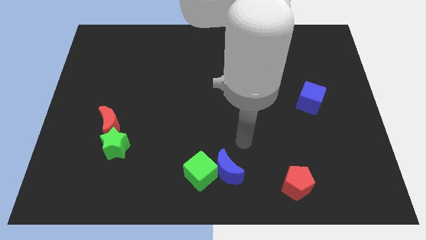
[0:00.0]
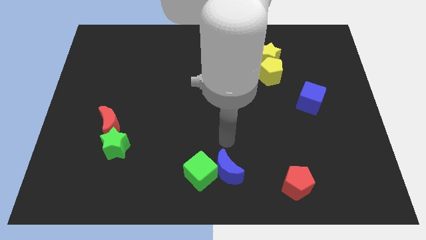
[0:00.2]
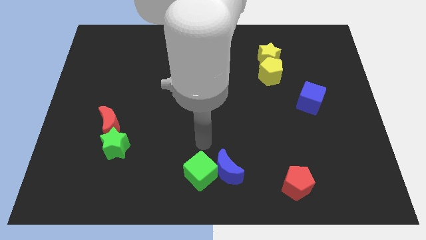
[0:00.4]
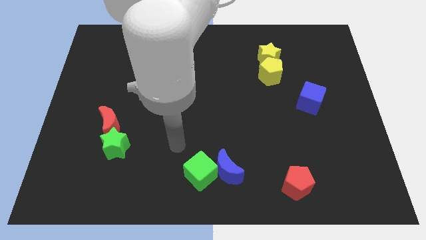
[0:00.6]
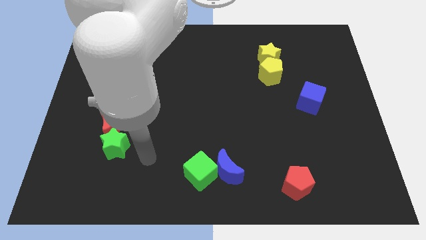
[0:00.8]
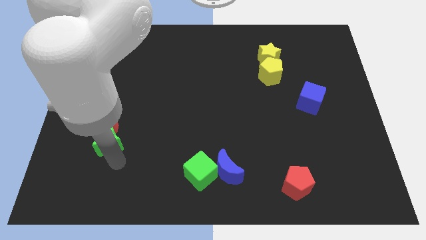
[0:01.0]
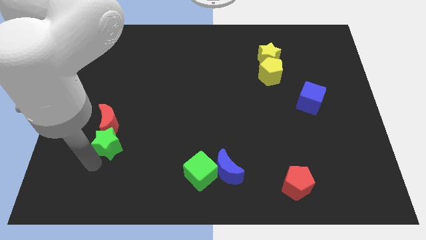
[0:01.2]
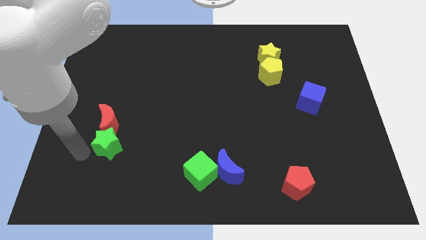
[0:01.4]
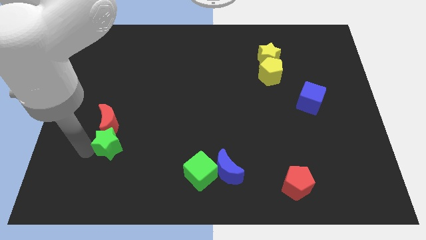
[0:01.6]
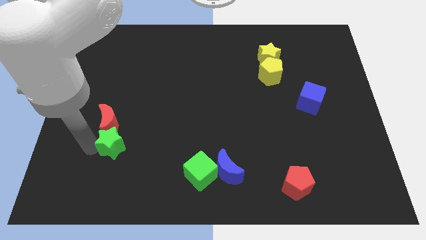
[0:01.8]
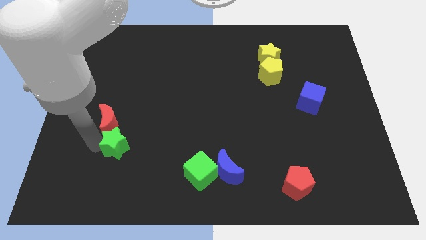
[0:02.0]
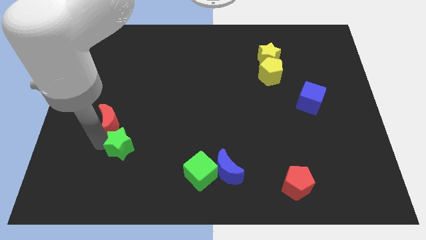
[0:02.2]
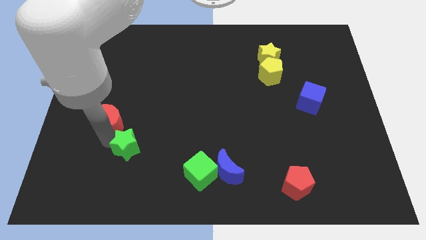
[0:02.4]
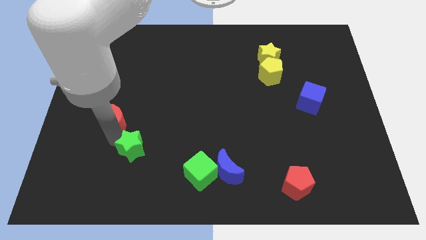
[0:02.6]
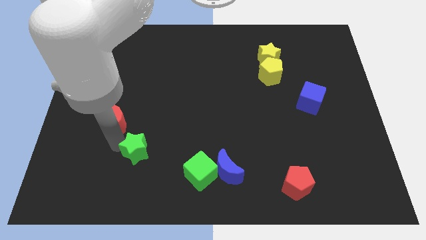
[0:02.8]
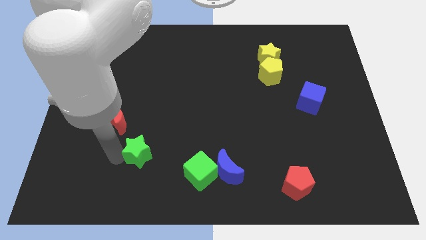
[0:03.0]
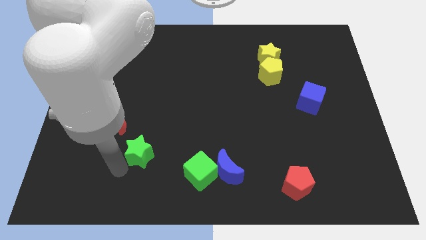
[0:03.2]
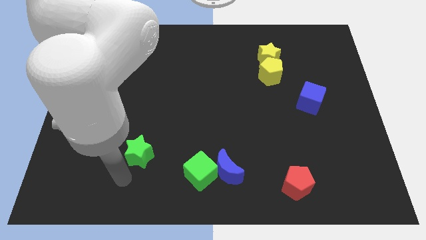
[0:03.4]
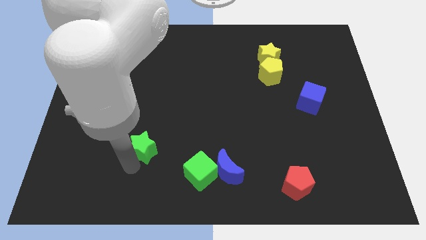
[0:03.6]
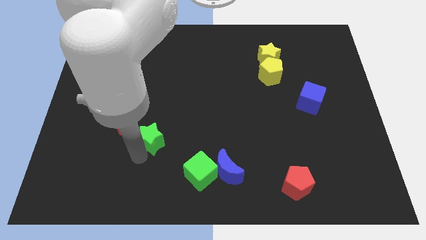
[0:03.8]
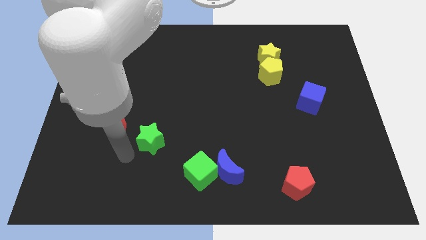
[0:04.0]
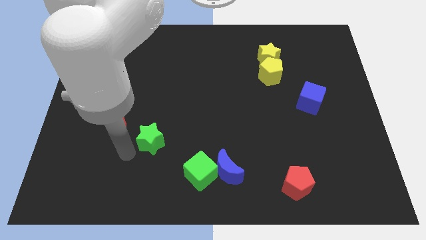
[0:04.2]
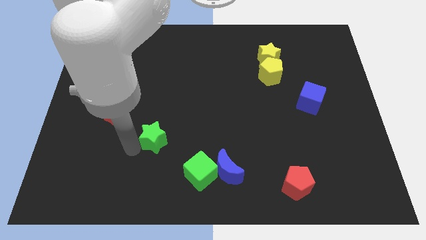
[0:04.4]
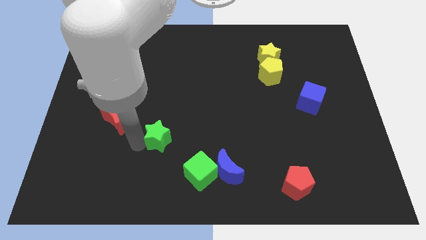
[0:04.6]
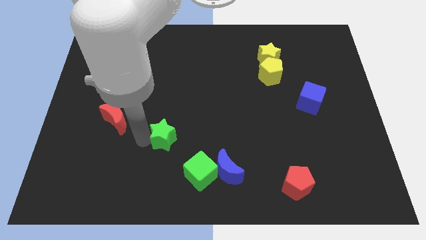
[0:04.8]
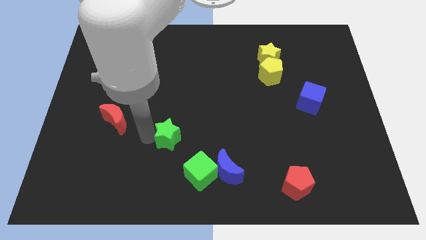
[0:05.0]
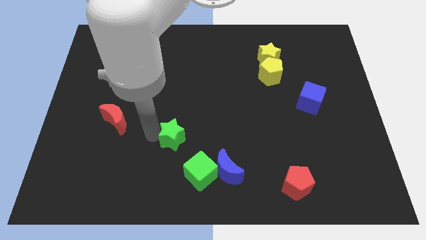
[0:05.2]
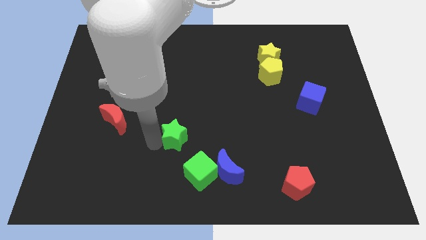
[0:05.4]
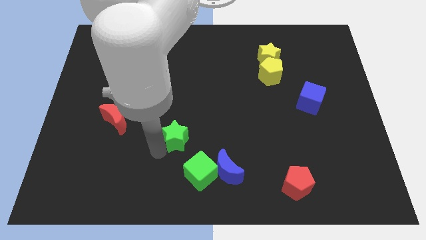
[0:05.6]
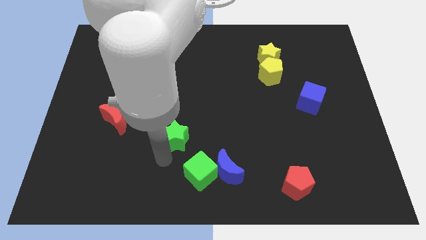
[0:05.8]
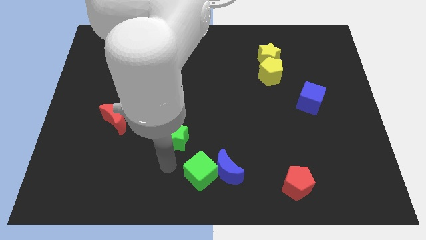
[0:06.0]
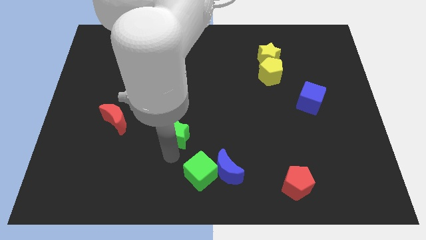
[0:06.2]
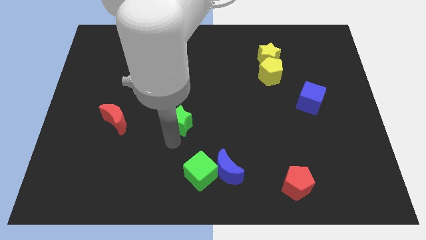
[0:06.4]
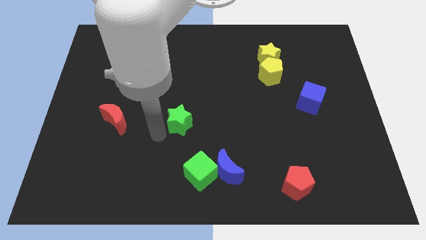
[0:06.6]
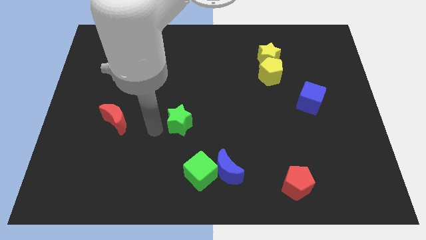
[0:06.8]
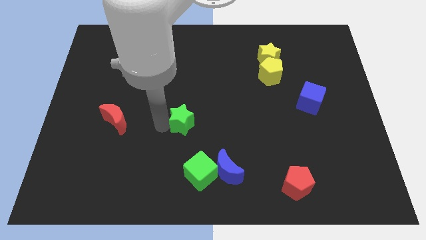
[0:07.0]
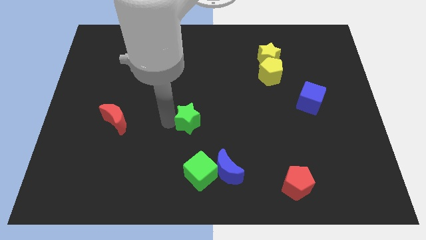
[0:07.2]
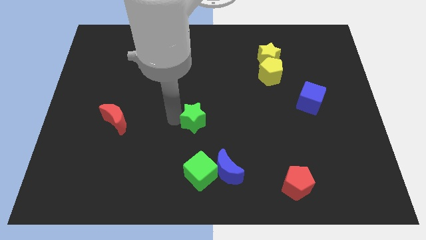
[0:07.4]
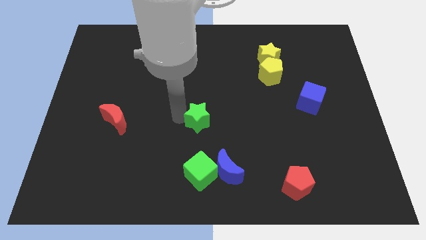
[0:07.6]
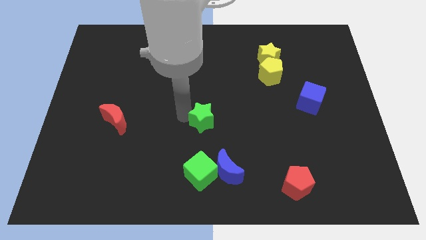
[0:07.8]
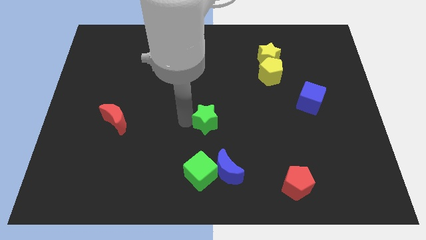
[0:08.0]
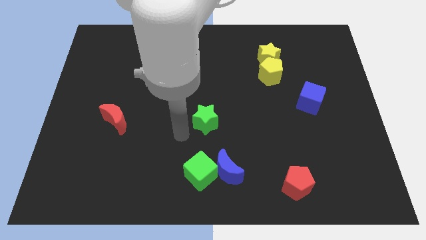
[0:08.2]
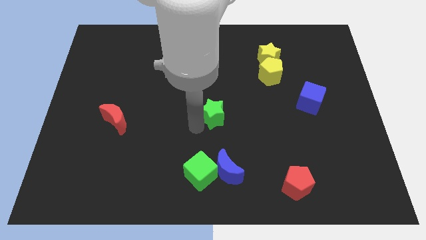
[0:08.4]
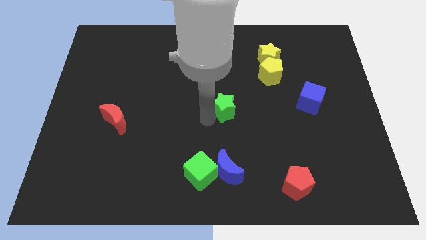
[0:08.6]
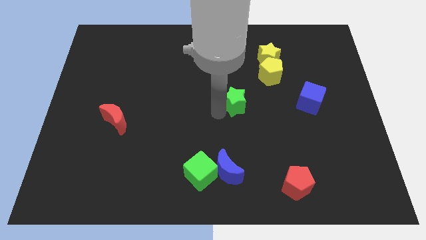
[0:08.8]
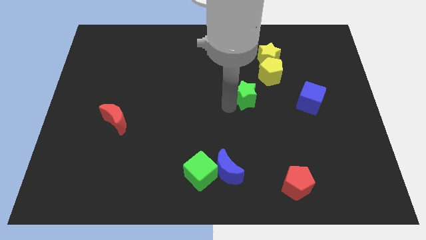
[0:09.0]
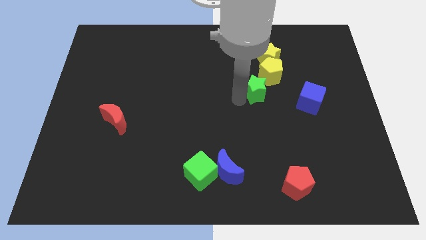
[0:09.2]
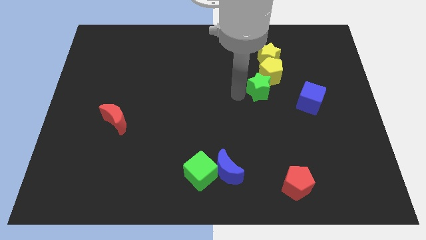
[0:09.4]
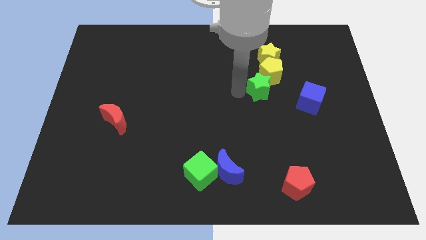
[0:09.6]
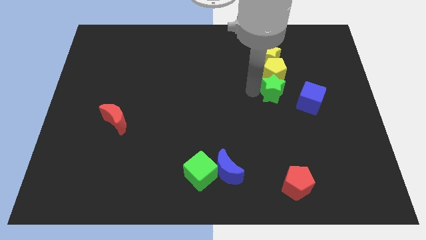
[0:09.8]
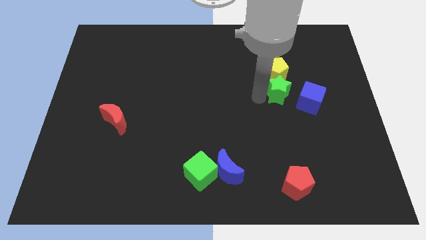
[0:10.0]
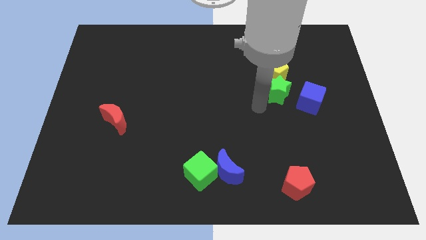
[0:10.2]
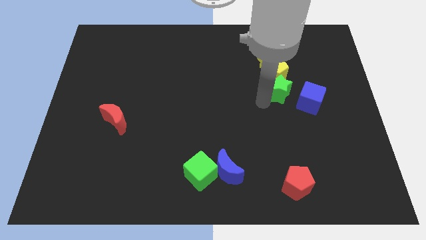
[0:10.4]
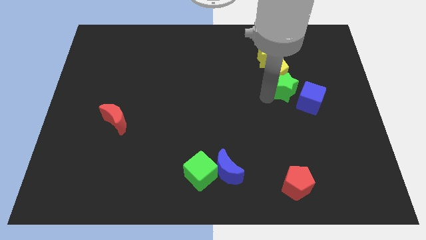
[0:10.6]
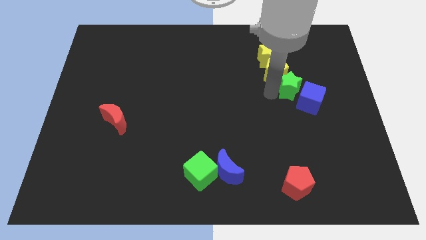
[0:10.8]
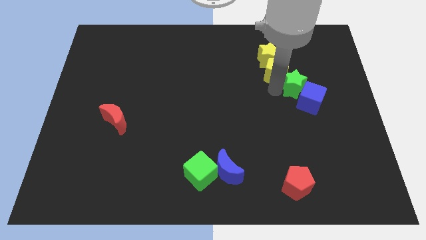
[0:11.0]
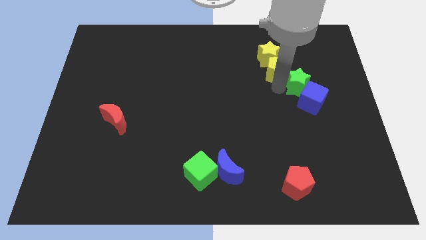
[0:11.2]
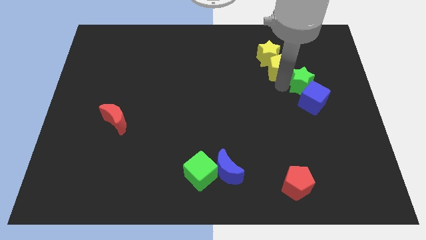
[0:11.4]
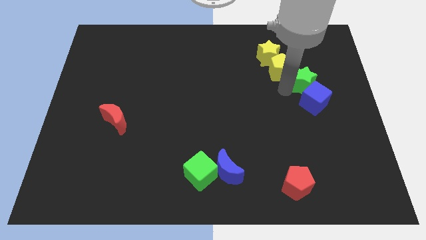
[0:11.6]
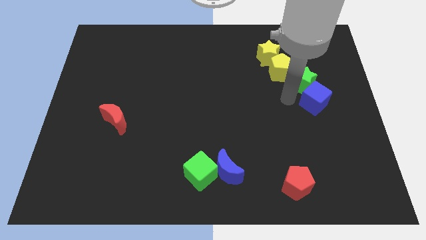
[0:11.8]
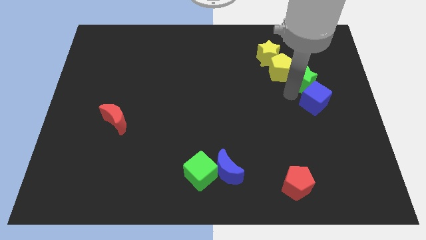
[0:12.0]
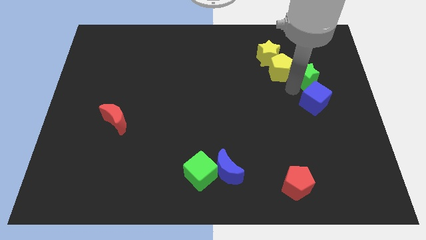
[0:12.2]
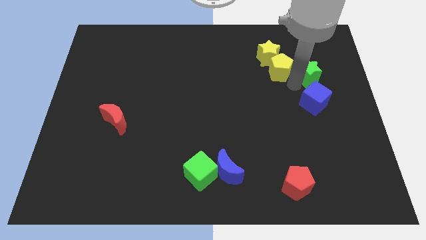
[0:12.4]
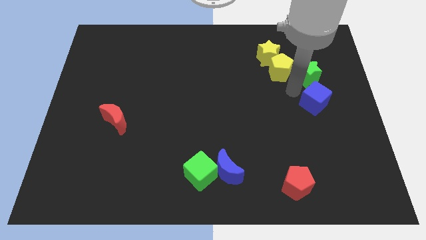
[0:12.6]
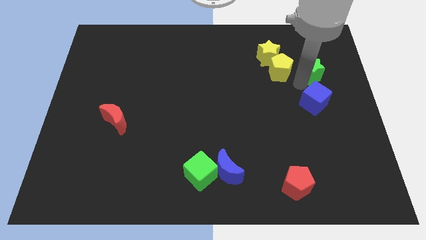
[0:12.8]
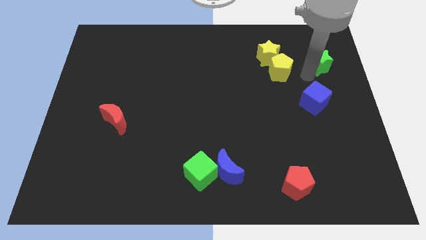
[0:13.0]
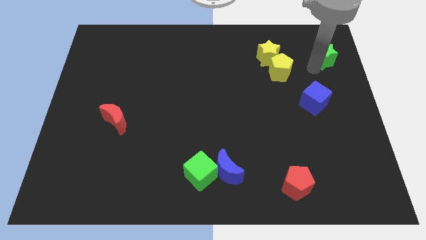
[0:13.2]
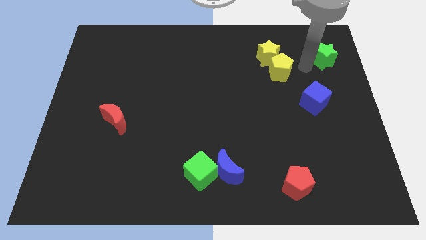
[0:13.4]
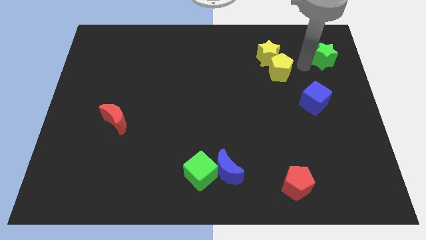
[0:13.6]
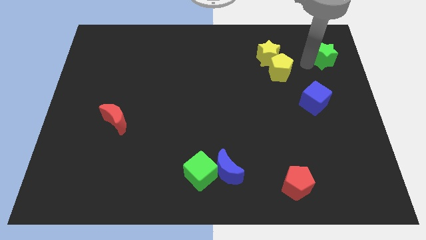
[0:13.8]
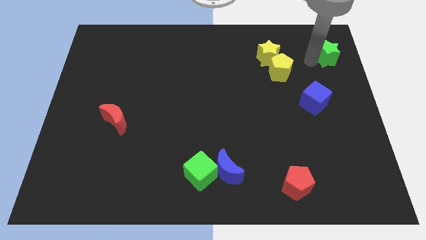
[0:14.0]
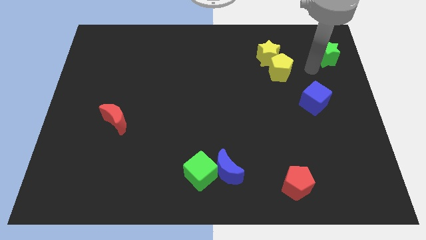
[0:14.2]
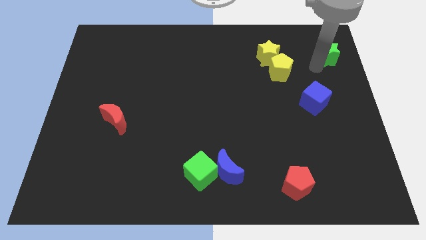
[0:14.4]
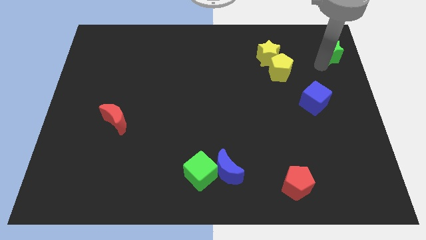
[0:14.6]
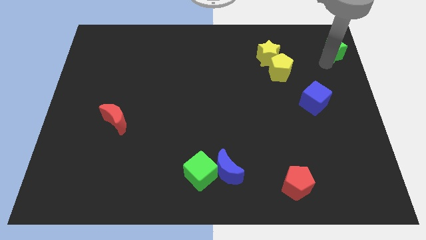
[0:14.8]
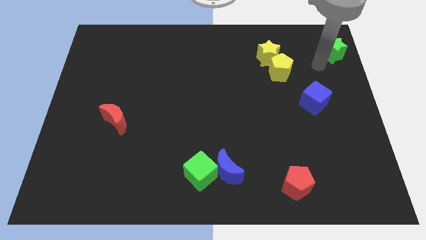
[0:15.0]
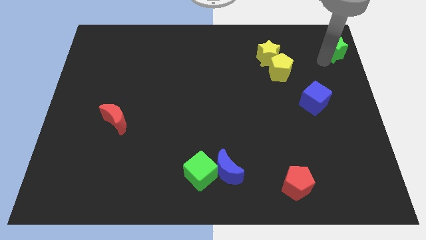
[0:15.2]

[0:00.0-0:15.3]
move the green star to the top right
